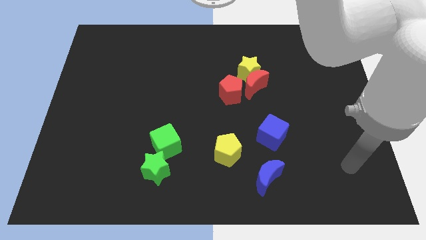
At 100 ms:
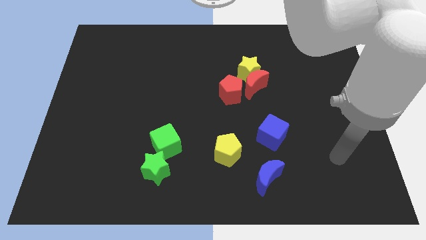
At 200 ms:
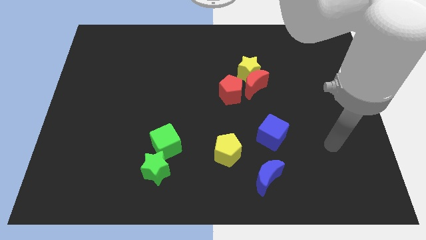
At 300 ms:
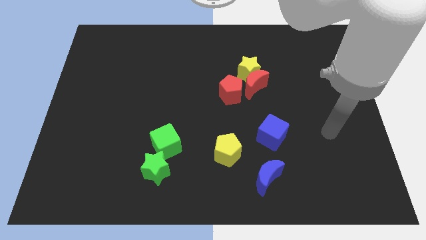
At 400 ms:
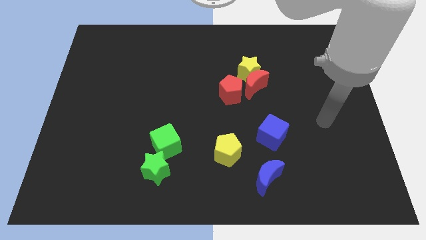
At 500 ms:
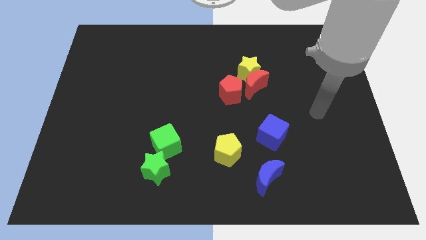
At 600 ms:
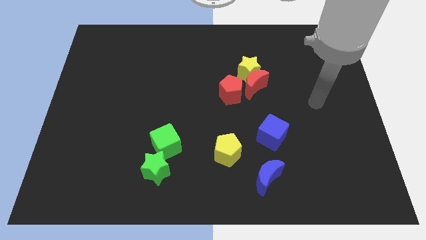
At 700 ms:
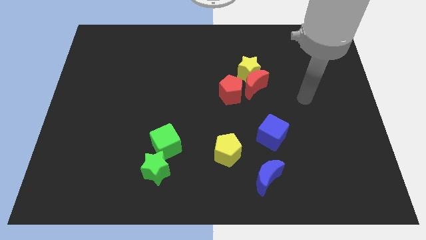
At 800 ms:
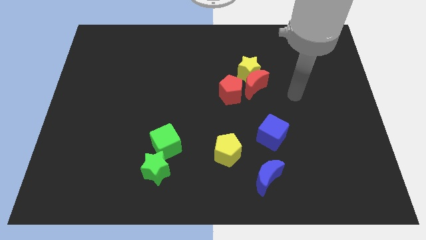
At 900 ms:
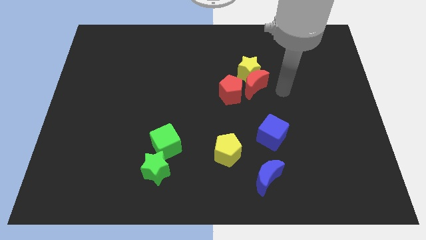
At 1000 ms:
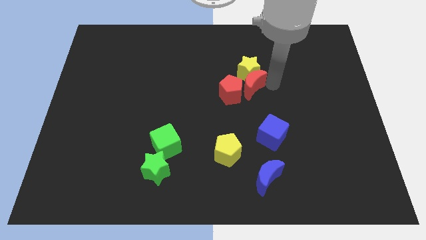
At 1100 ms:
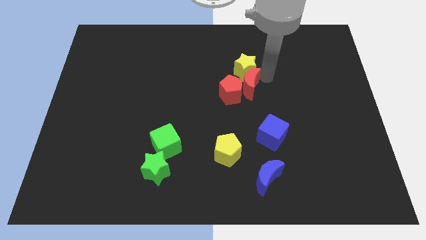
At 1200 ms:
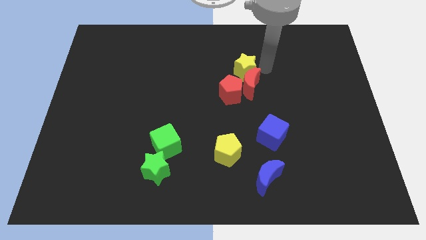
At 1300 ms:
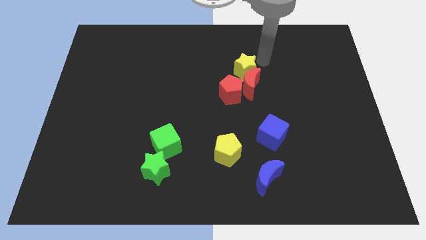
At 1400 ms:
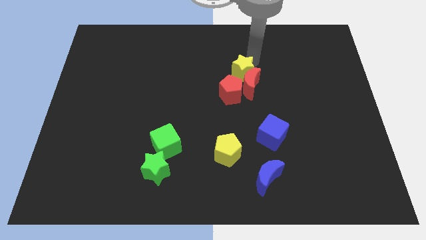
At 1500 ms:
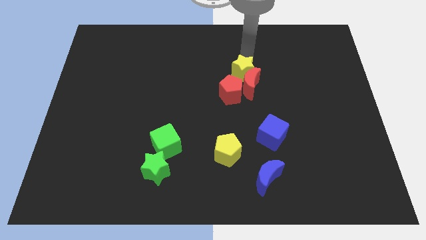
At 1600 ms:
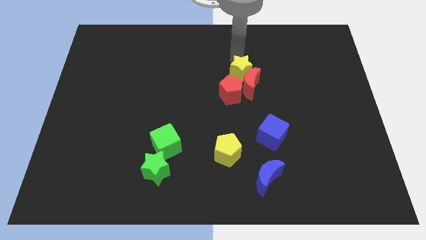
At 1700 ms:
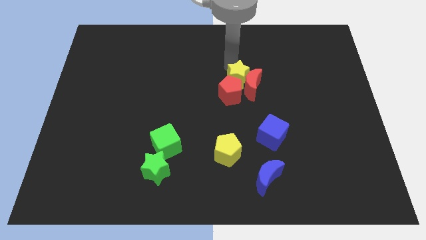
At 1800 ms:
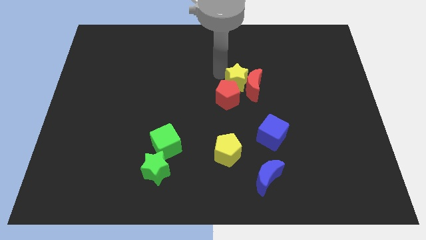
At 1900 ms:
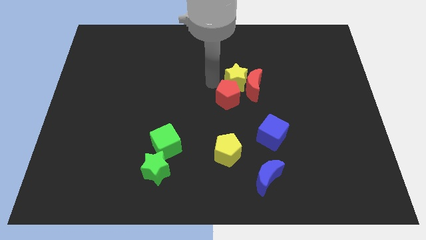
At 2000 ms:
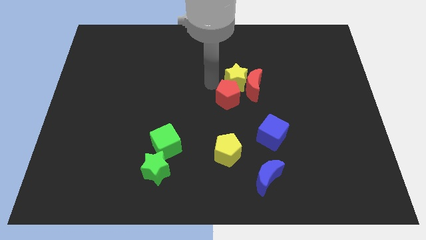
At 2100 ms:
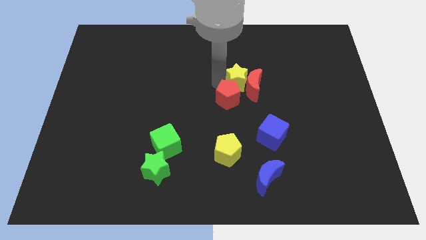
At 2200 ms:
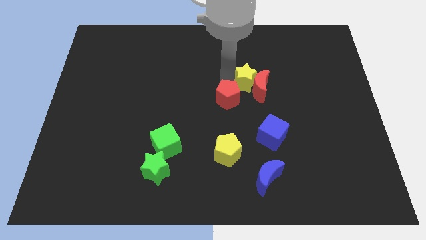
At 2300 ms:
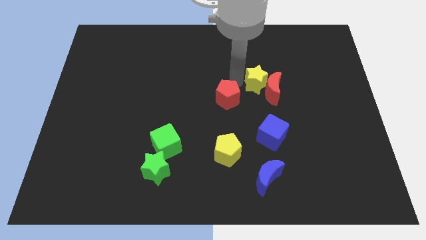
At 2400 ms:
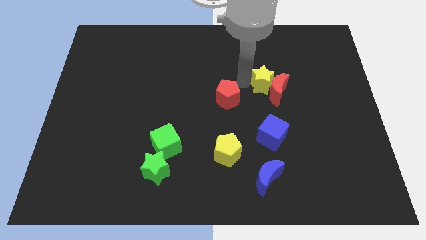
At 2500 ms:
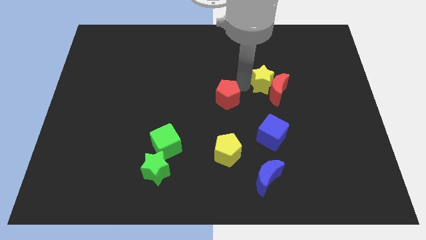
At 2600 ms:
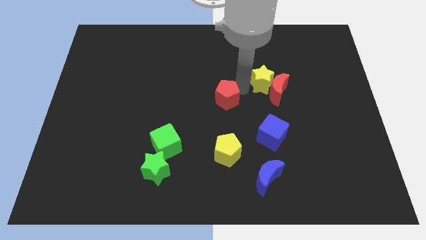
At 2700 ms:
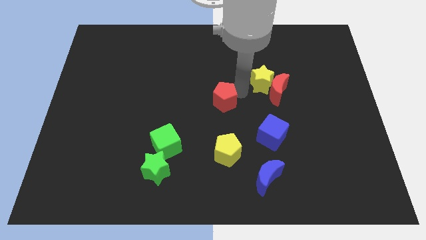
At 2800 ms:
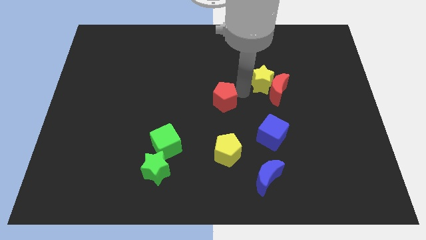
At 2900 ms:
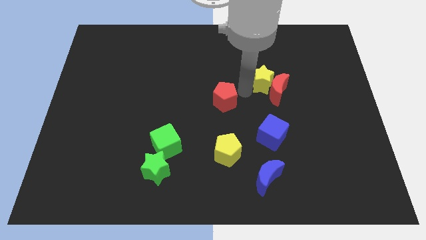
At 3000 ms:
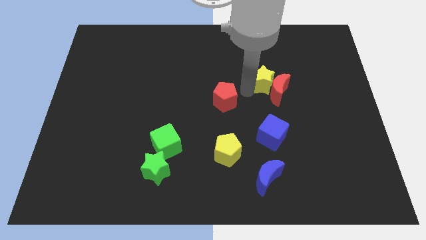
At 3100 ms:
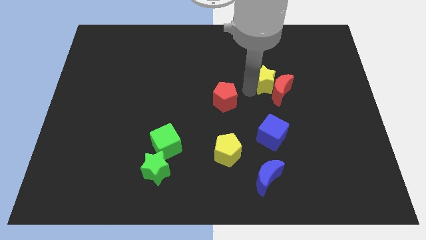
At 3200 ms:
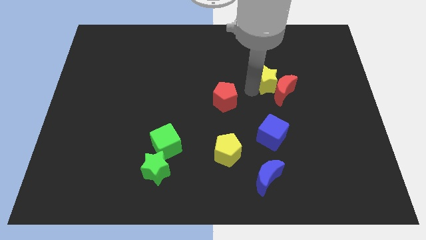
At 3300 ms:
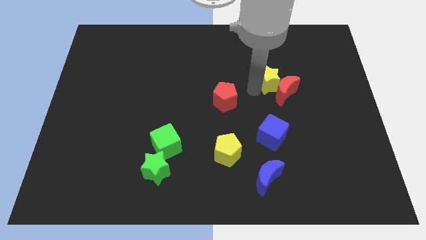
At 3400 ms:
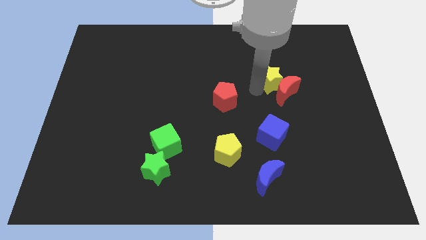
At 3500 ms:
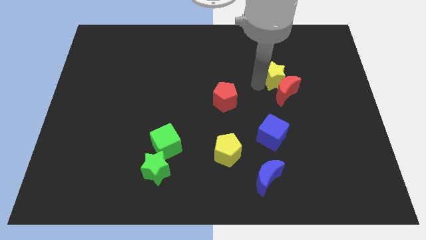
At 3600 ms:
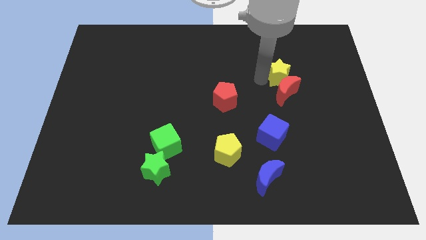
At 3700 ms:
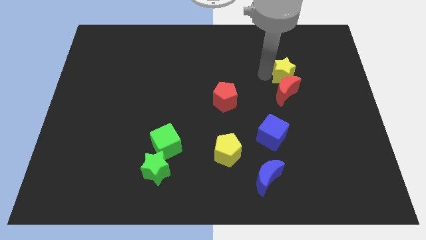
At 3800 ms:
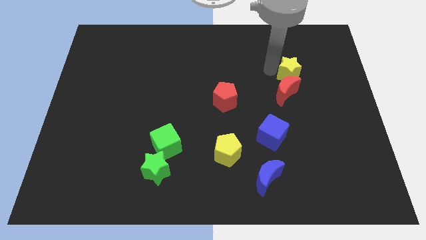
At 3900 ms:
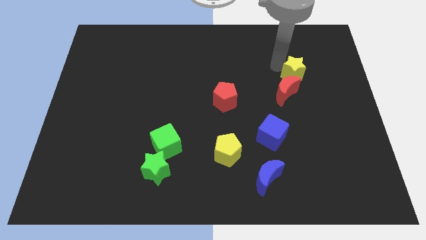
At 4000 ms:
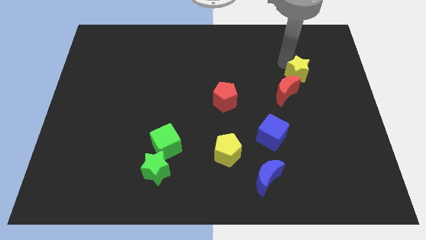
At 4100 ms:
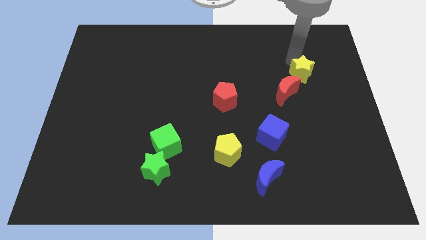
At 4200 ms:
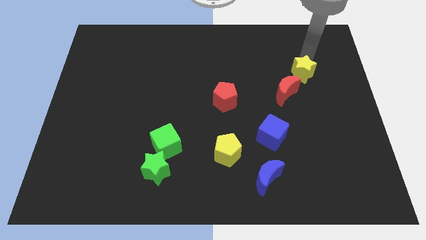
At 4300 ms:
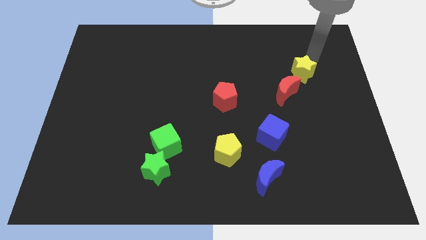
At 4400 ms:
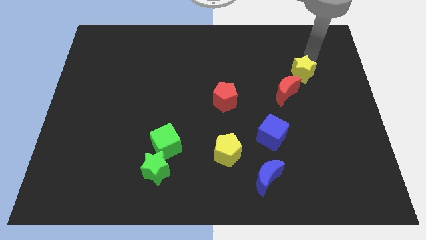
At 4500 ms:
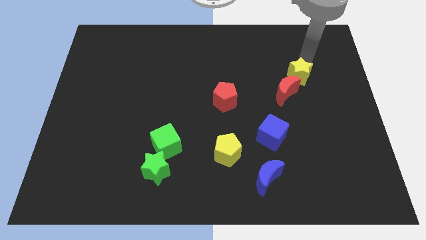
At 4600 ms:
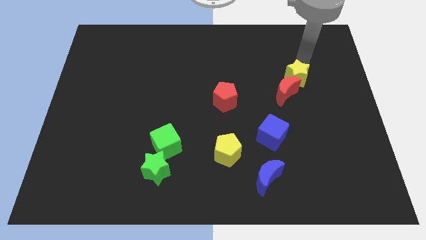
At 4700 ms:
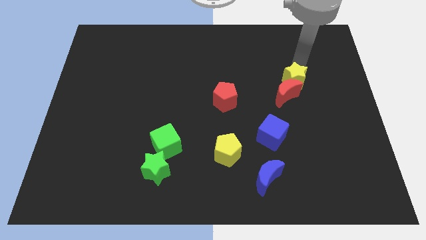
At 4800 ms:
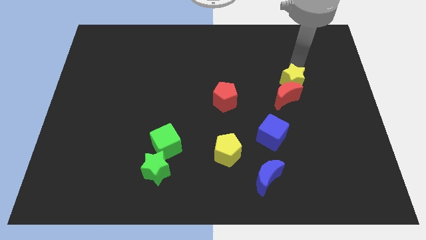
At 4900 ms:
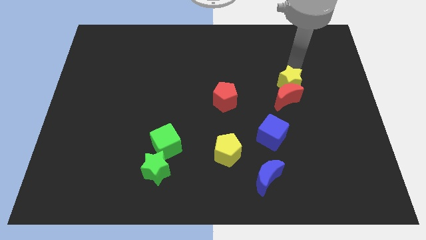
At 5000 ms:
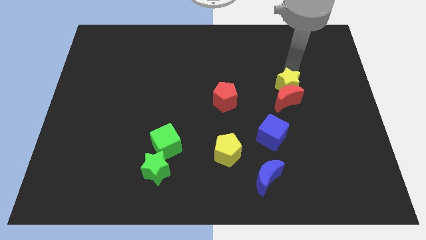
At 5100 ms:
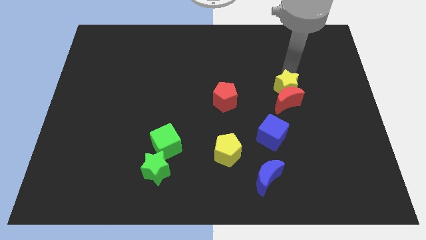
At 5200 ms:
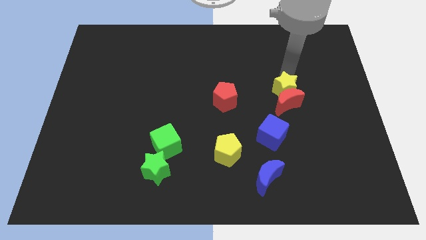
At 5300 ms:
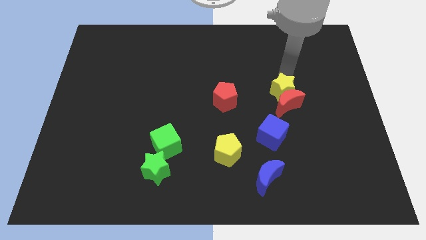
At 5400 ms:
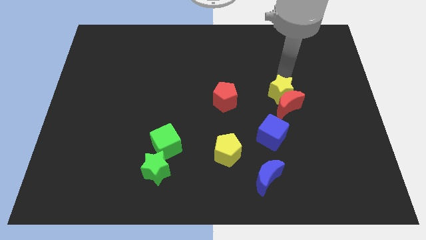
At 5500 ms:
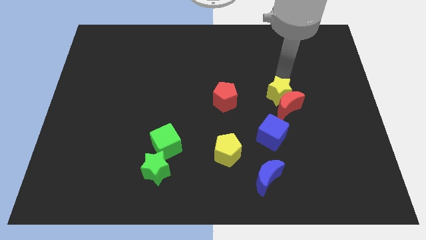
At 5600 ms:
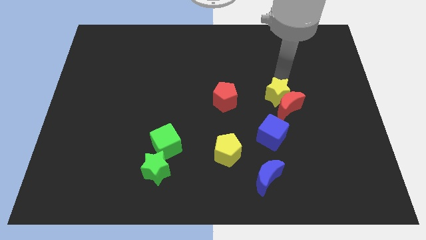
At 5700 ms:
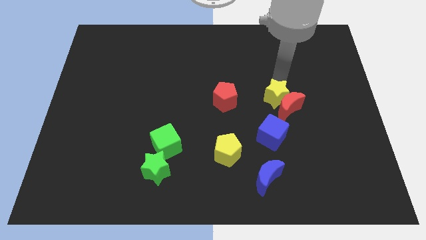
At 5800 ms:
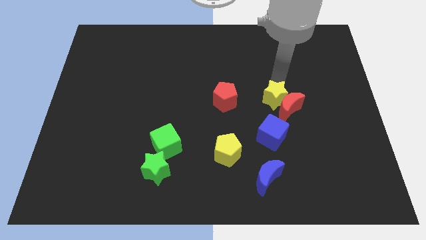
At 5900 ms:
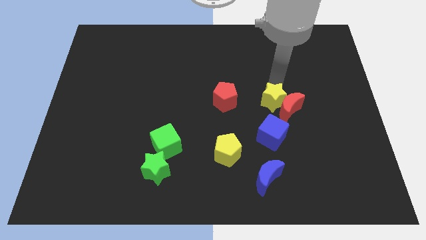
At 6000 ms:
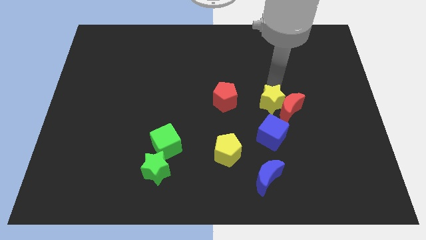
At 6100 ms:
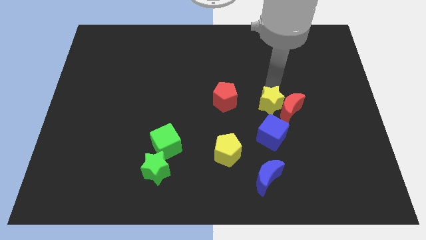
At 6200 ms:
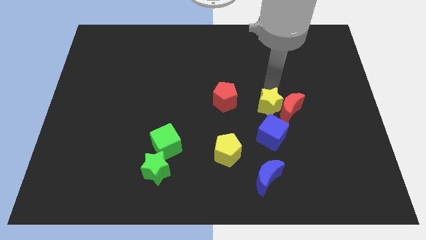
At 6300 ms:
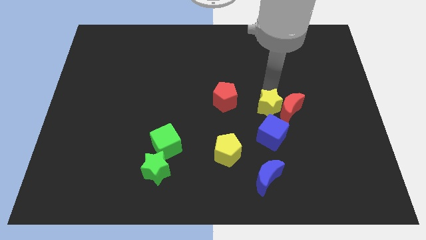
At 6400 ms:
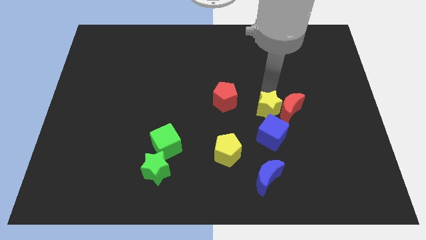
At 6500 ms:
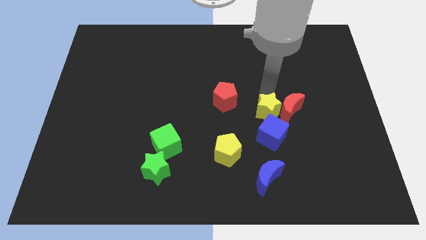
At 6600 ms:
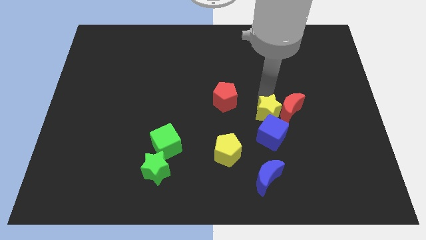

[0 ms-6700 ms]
move the yellow star next to the blue cube

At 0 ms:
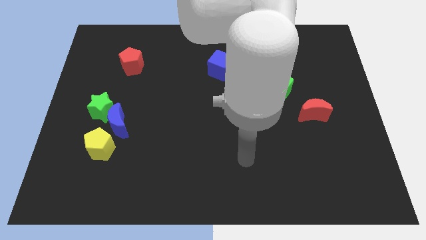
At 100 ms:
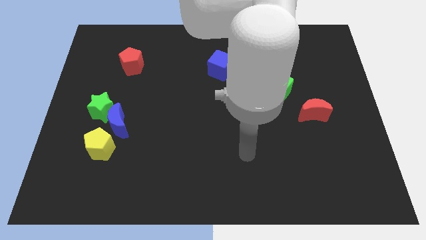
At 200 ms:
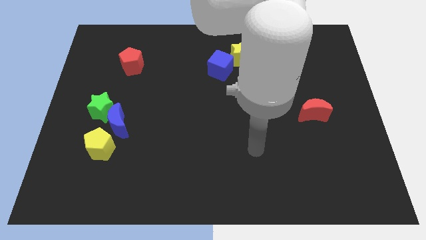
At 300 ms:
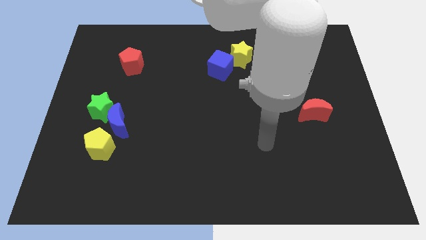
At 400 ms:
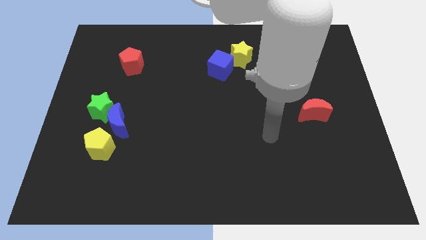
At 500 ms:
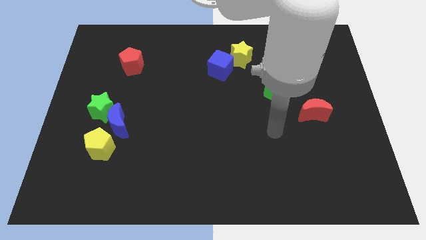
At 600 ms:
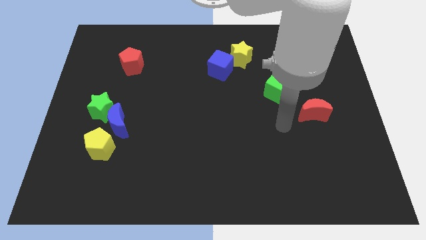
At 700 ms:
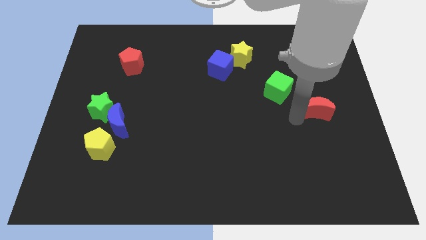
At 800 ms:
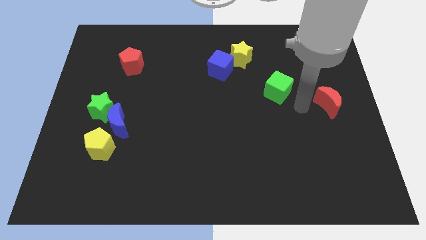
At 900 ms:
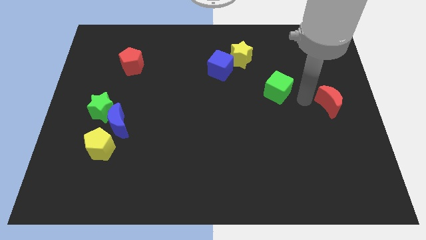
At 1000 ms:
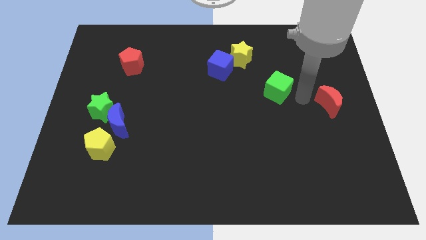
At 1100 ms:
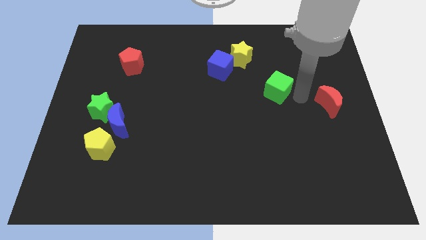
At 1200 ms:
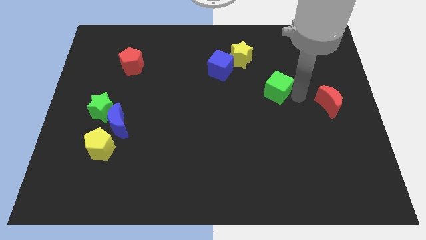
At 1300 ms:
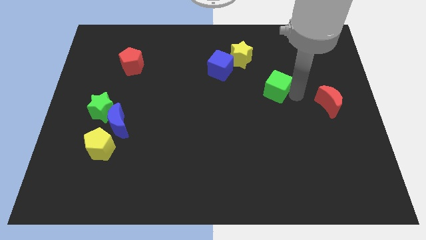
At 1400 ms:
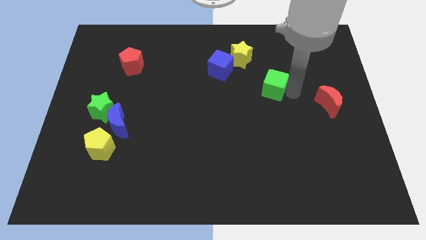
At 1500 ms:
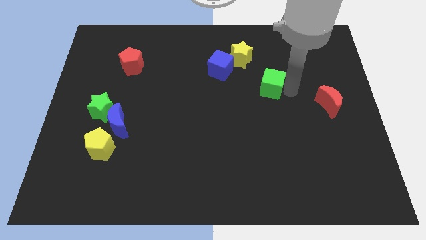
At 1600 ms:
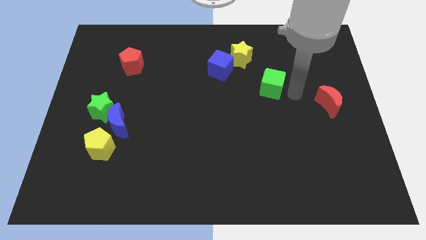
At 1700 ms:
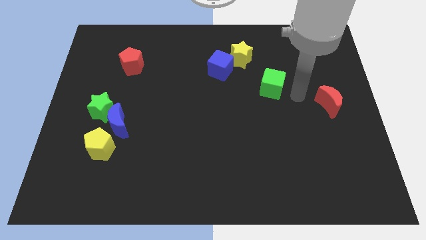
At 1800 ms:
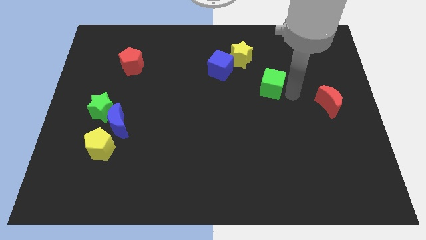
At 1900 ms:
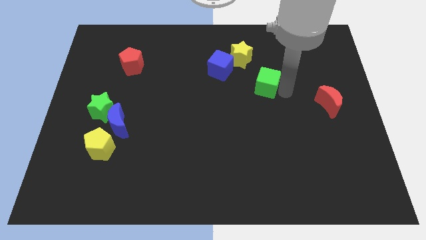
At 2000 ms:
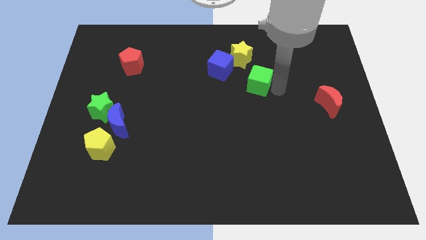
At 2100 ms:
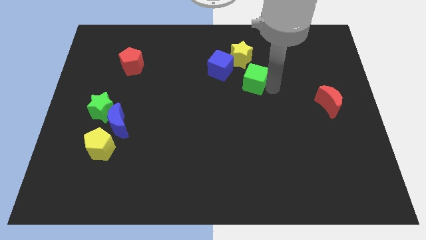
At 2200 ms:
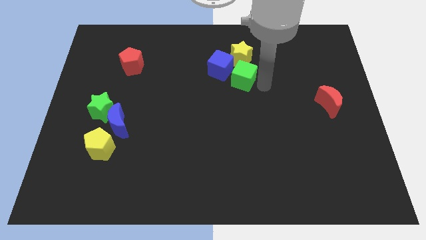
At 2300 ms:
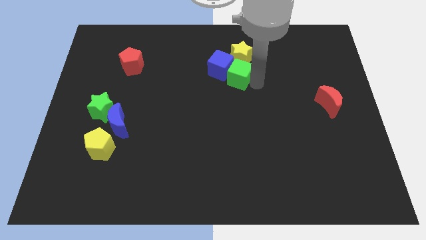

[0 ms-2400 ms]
put the green cube close to the blue cube
